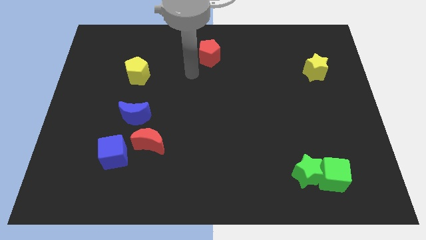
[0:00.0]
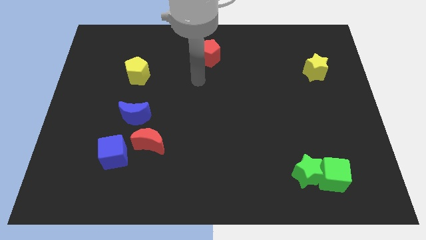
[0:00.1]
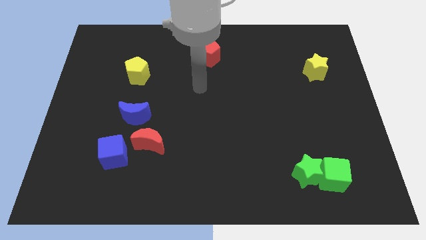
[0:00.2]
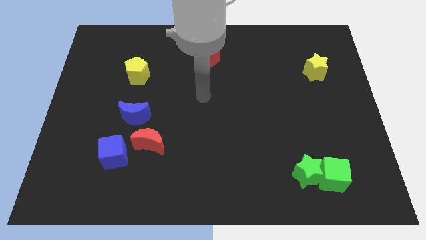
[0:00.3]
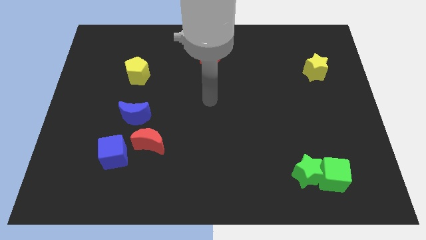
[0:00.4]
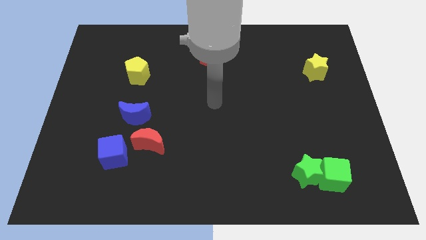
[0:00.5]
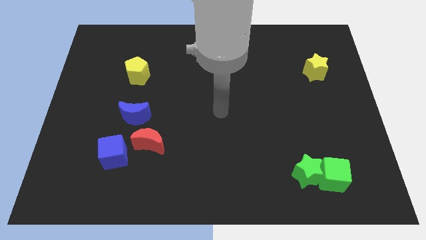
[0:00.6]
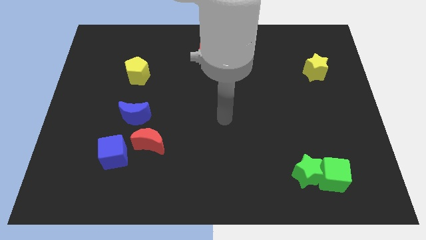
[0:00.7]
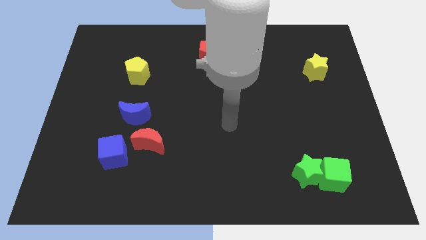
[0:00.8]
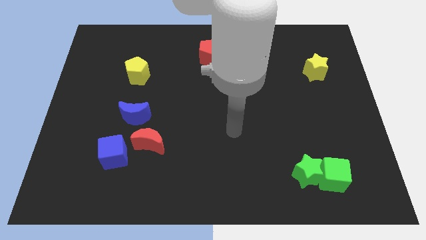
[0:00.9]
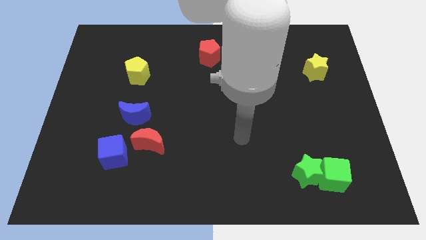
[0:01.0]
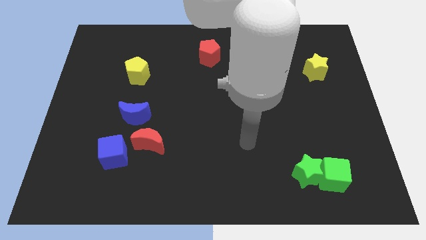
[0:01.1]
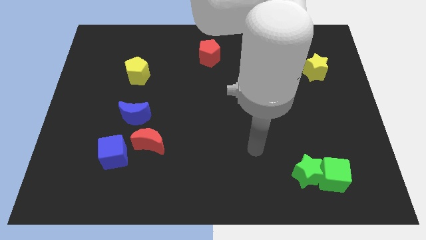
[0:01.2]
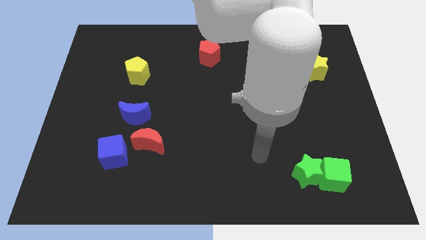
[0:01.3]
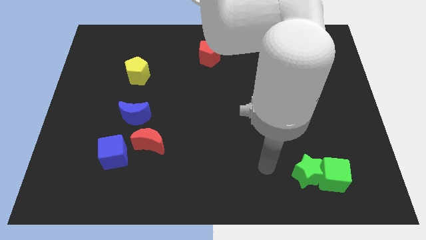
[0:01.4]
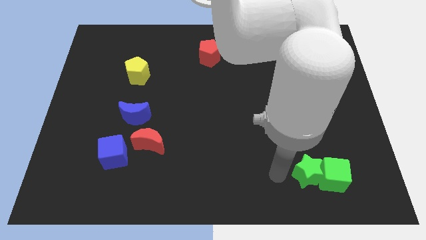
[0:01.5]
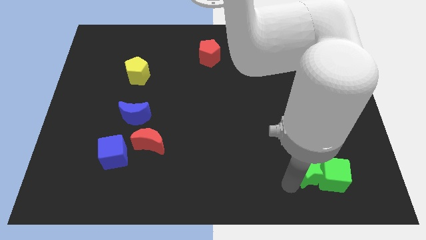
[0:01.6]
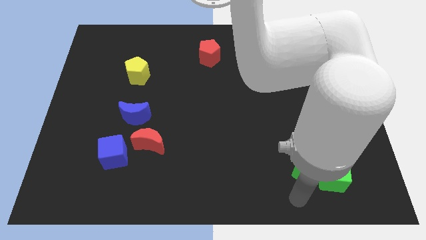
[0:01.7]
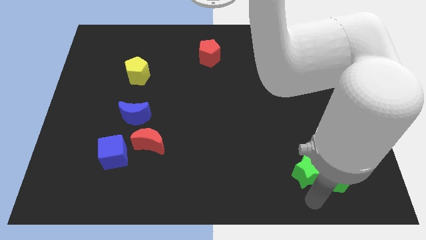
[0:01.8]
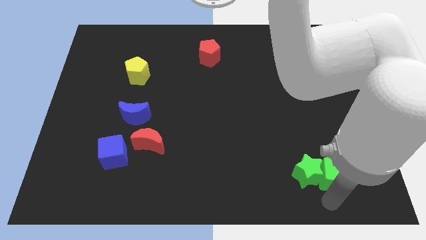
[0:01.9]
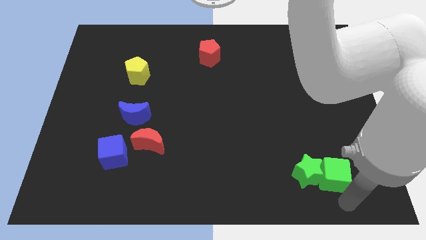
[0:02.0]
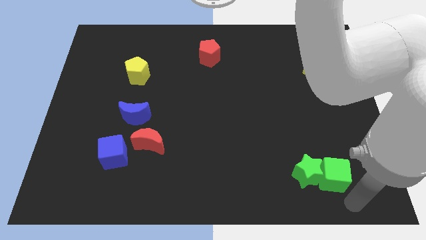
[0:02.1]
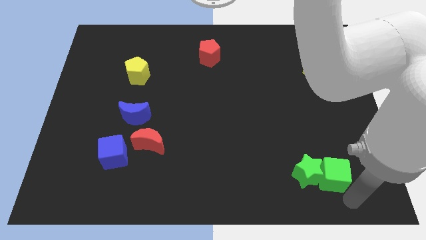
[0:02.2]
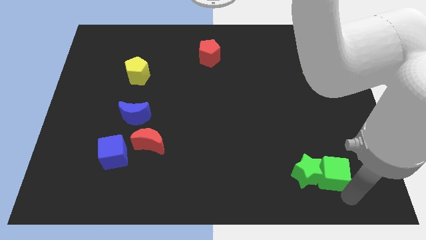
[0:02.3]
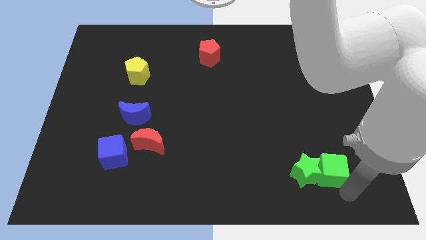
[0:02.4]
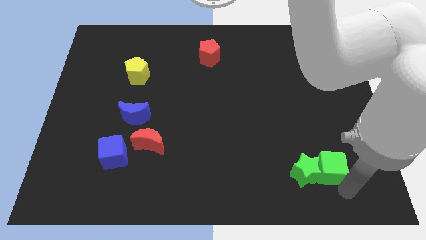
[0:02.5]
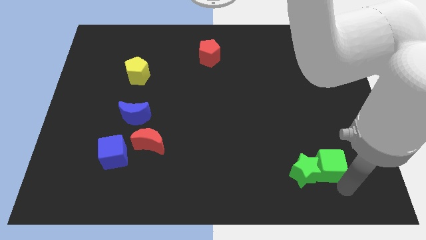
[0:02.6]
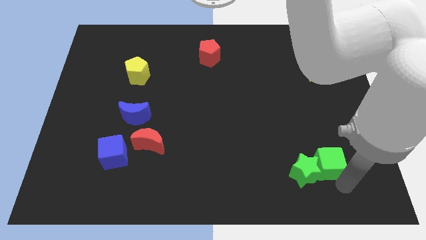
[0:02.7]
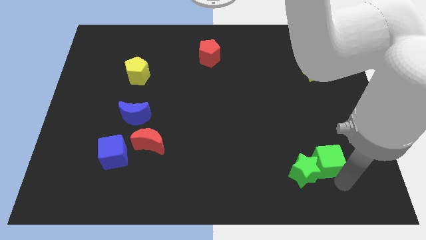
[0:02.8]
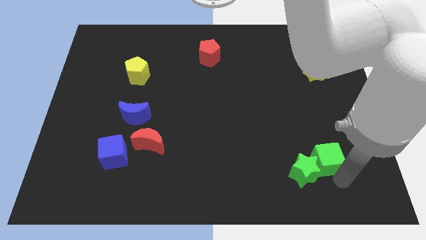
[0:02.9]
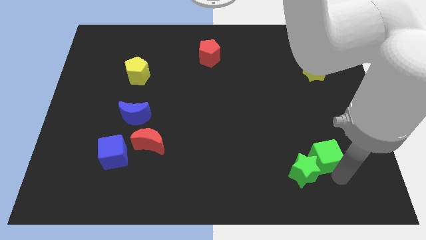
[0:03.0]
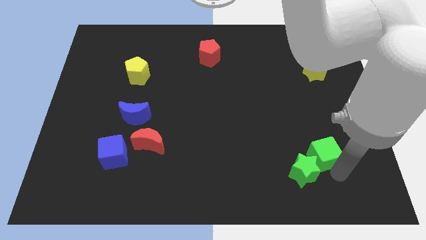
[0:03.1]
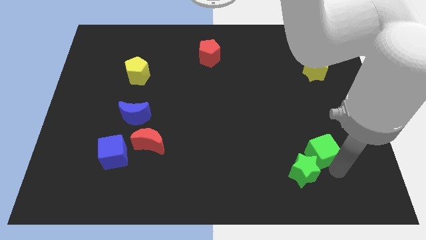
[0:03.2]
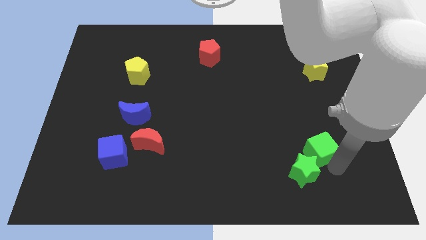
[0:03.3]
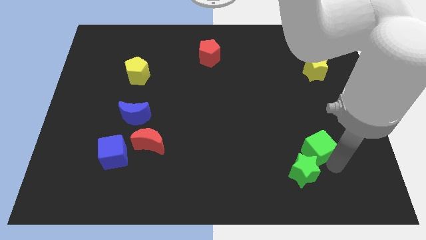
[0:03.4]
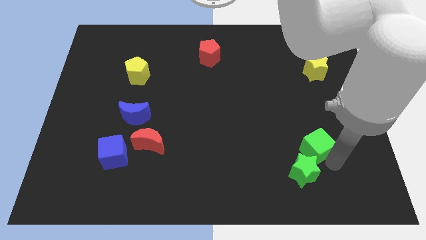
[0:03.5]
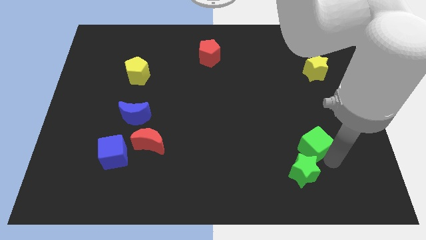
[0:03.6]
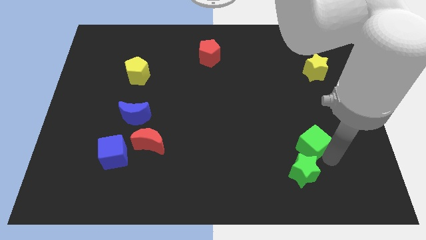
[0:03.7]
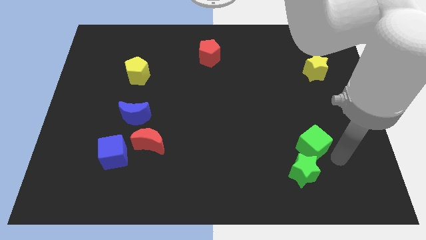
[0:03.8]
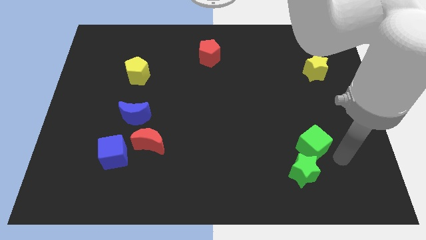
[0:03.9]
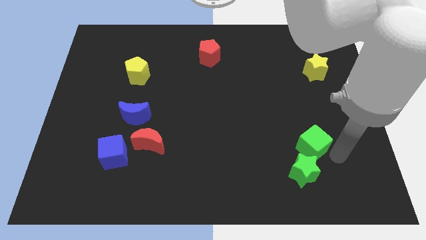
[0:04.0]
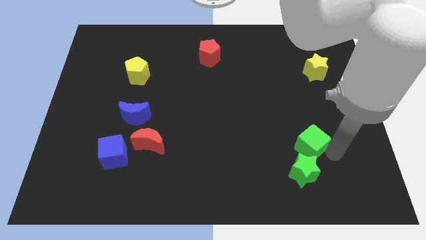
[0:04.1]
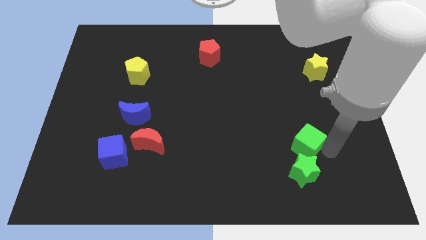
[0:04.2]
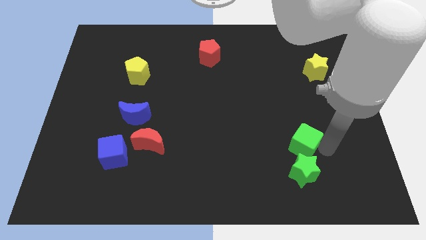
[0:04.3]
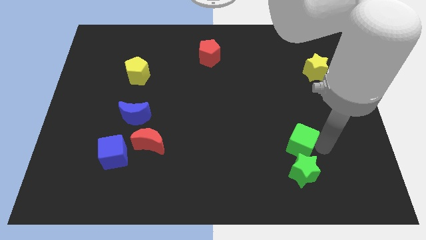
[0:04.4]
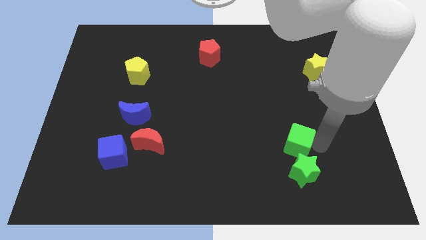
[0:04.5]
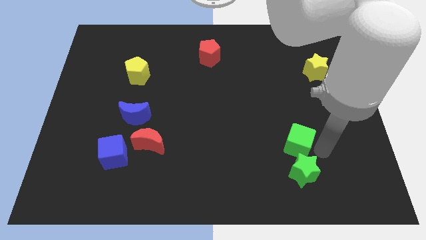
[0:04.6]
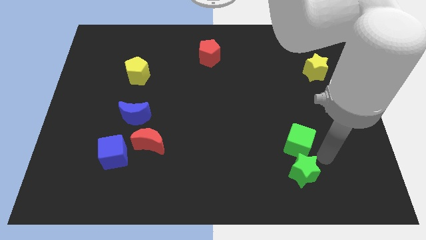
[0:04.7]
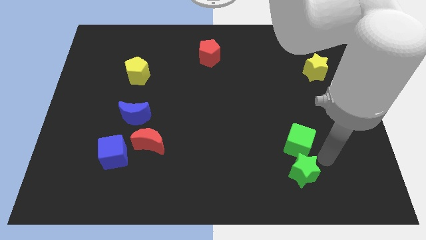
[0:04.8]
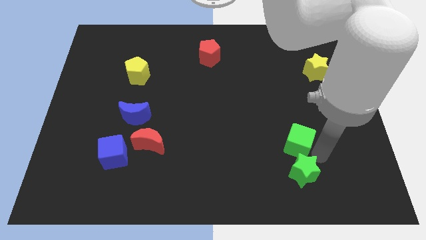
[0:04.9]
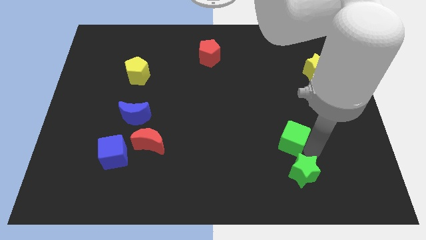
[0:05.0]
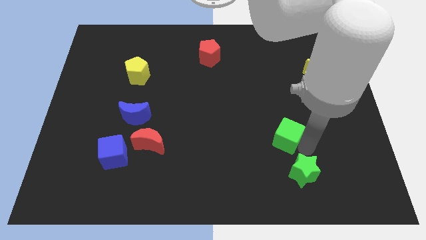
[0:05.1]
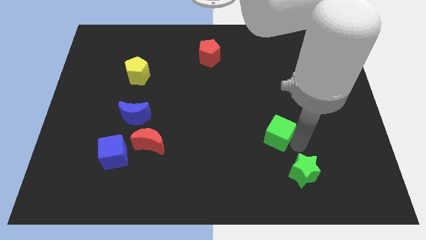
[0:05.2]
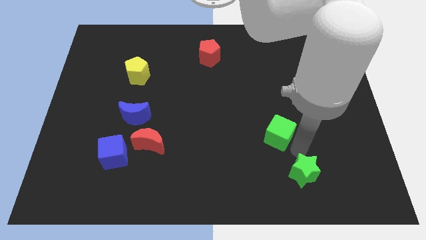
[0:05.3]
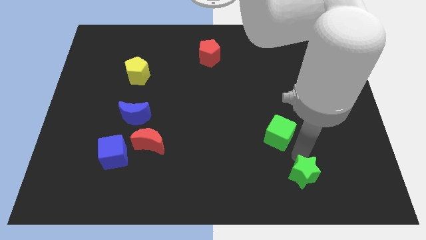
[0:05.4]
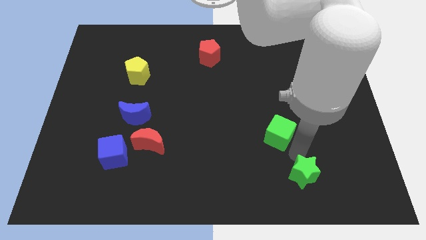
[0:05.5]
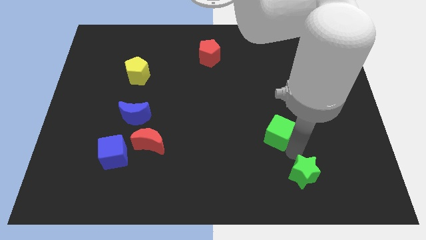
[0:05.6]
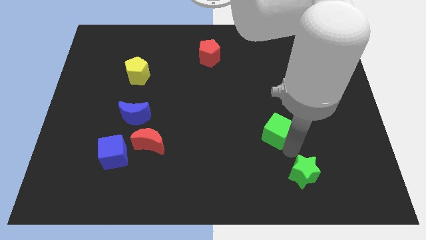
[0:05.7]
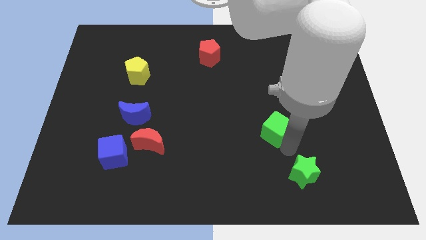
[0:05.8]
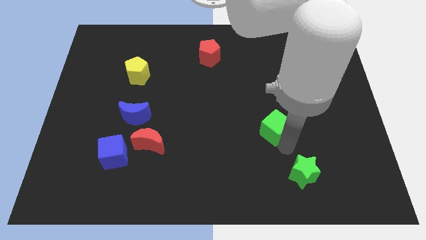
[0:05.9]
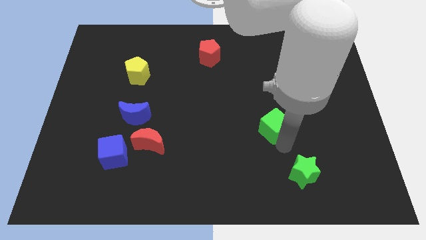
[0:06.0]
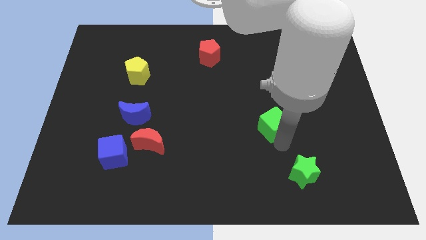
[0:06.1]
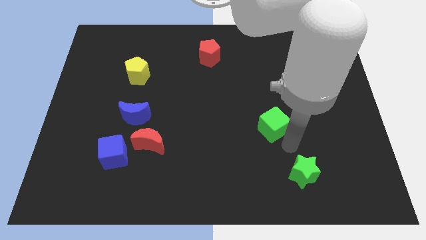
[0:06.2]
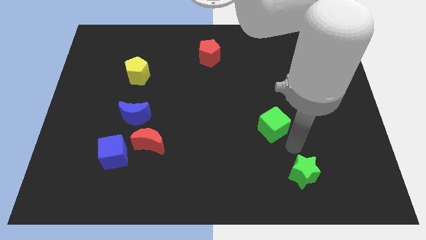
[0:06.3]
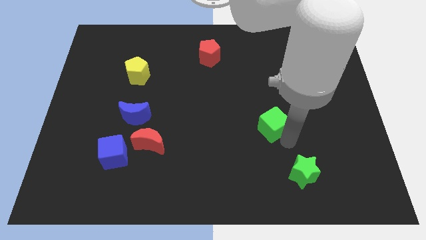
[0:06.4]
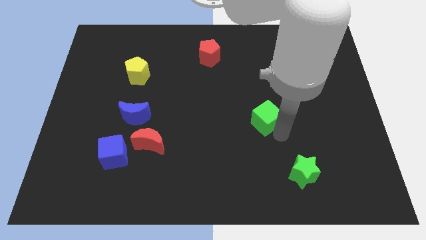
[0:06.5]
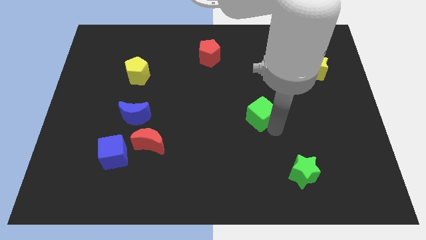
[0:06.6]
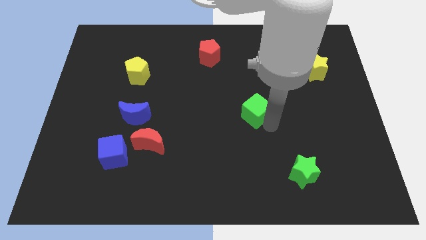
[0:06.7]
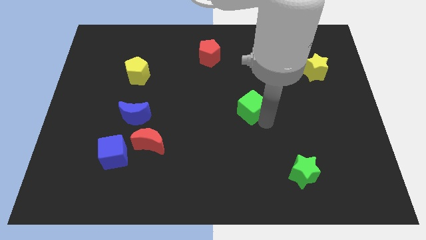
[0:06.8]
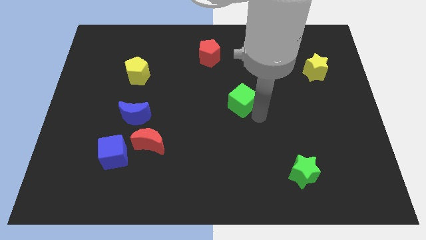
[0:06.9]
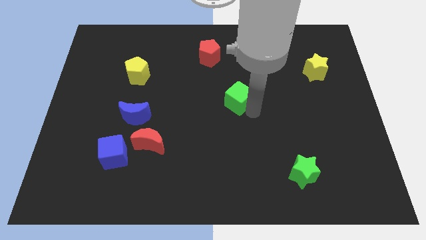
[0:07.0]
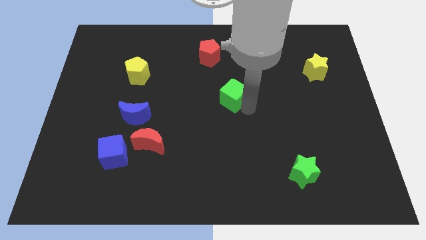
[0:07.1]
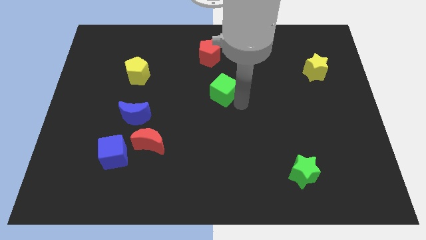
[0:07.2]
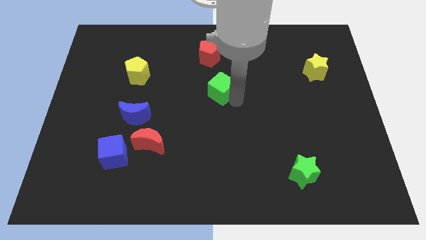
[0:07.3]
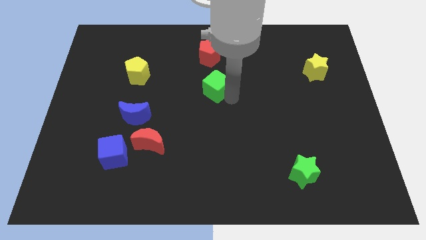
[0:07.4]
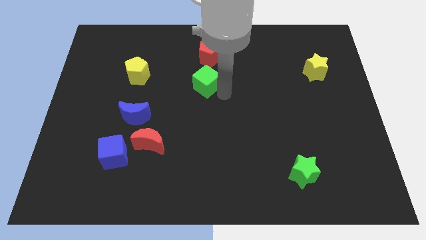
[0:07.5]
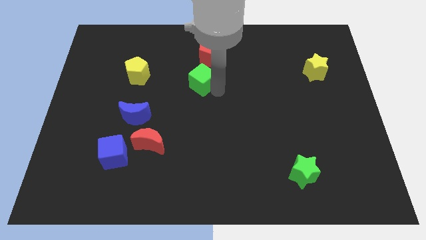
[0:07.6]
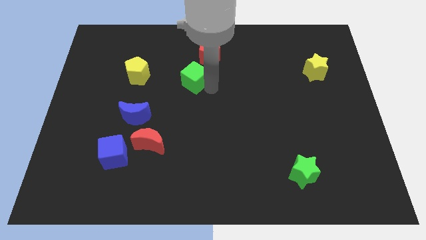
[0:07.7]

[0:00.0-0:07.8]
put the green cube to the bottom left of the red pentagon
